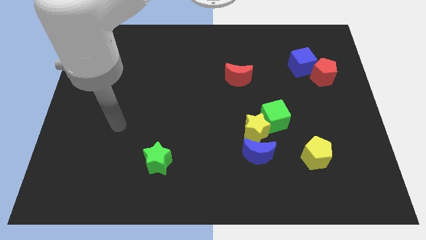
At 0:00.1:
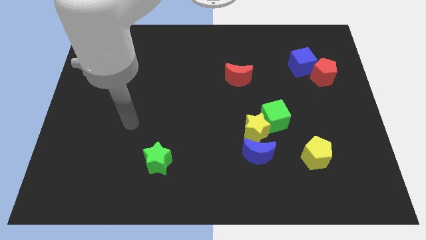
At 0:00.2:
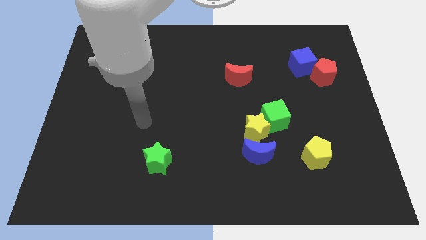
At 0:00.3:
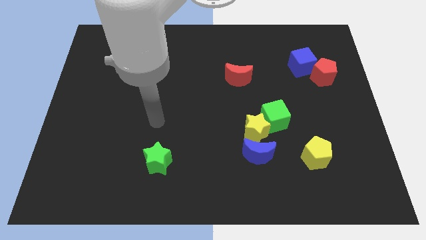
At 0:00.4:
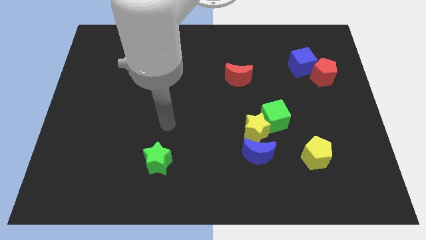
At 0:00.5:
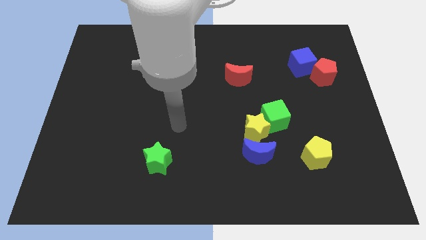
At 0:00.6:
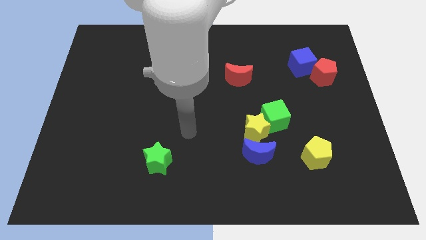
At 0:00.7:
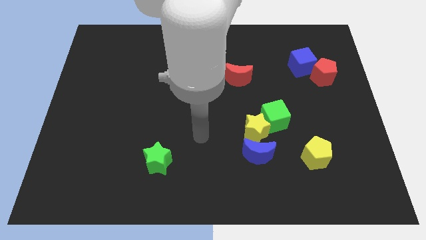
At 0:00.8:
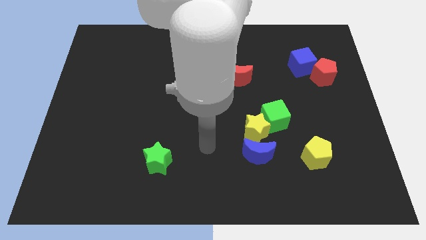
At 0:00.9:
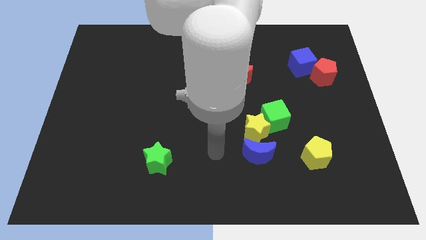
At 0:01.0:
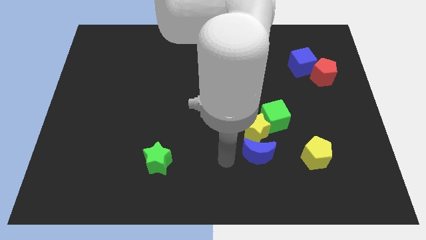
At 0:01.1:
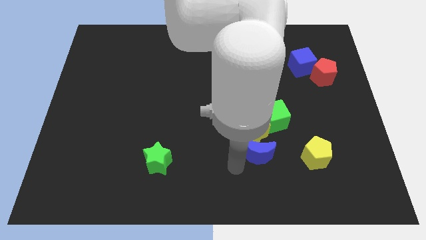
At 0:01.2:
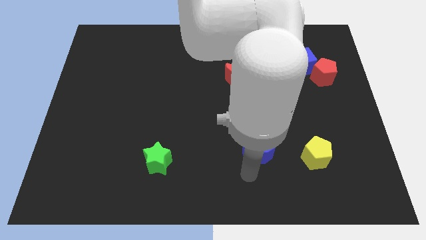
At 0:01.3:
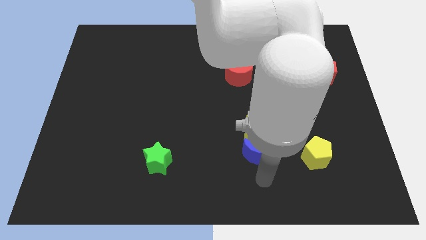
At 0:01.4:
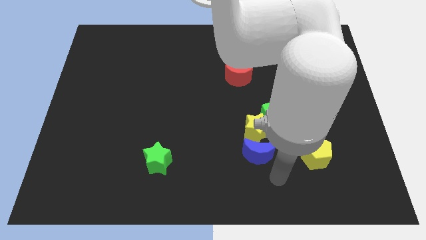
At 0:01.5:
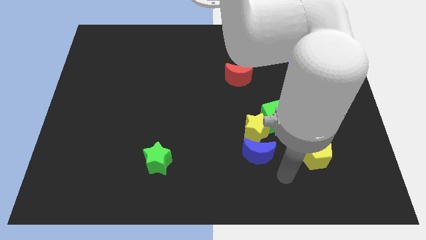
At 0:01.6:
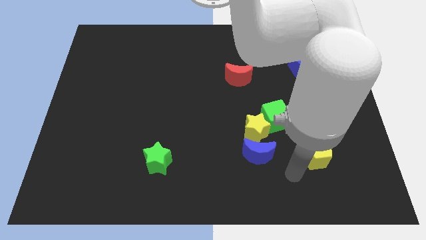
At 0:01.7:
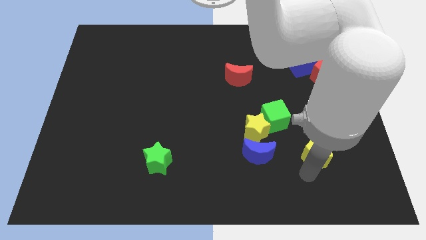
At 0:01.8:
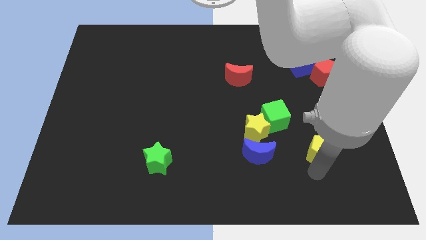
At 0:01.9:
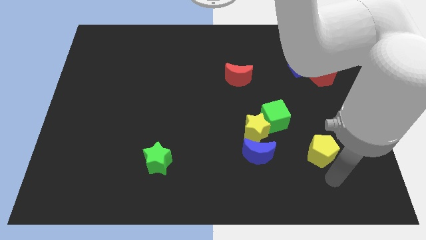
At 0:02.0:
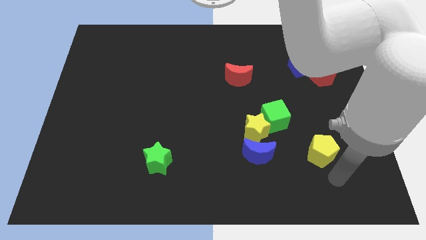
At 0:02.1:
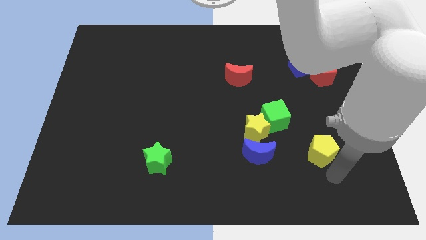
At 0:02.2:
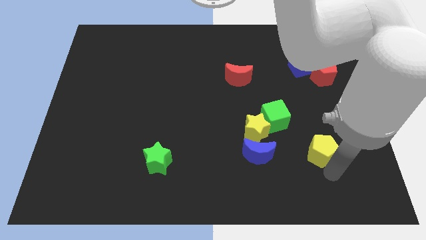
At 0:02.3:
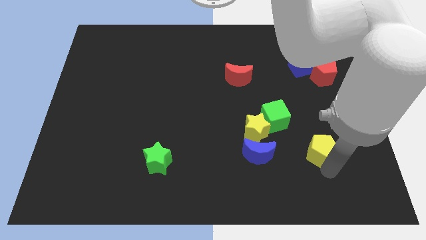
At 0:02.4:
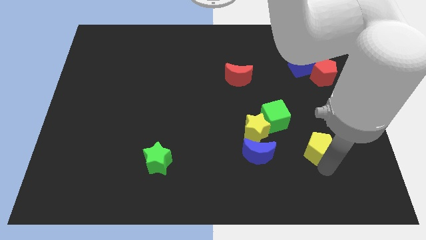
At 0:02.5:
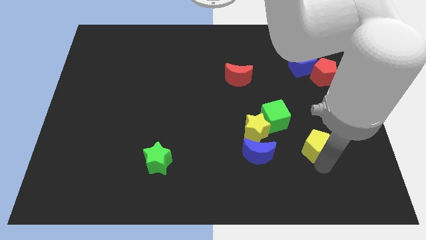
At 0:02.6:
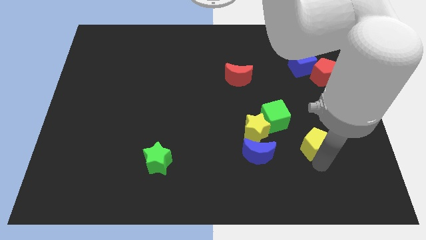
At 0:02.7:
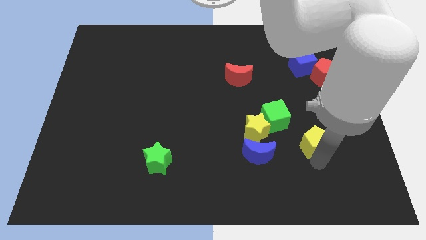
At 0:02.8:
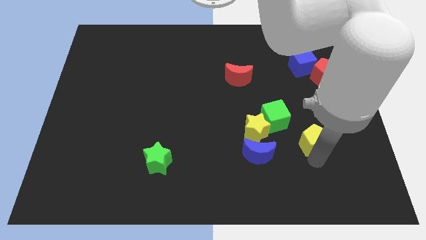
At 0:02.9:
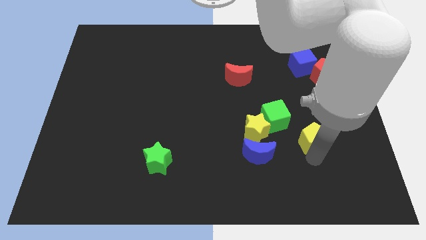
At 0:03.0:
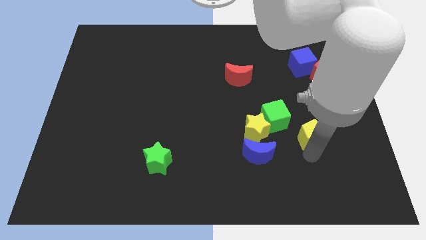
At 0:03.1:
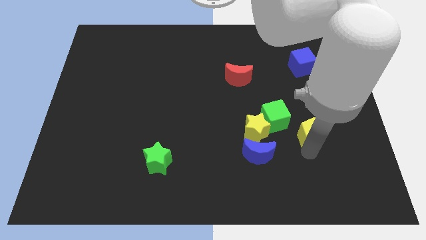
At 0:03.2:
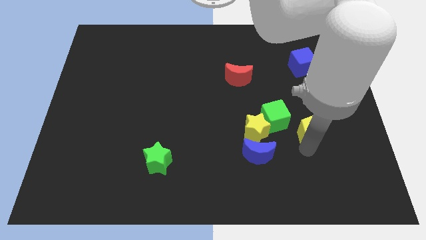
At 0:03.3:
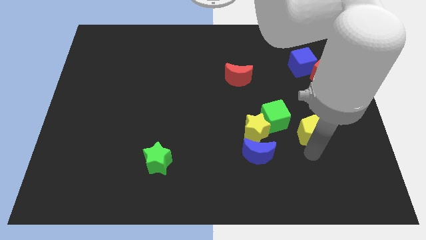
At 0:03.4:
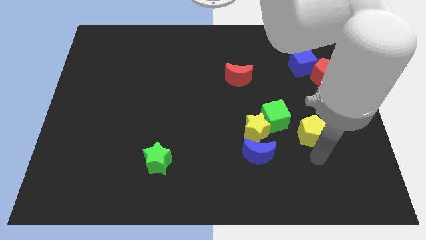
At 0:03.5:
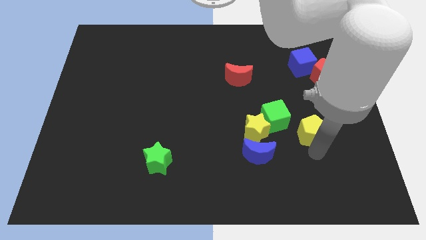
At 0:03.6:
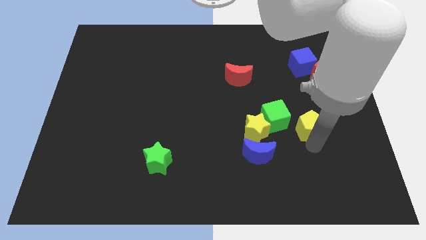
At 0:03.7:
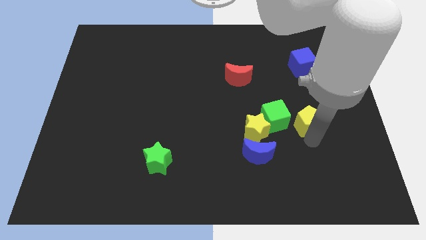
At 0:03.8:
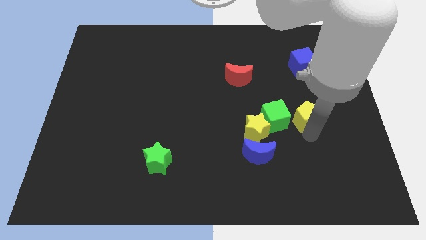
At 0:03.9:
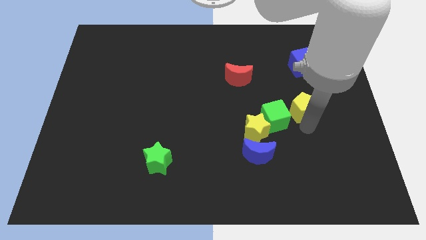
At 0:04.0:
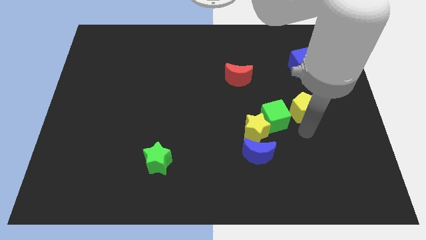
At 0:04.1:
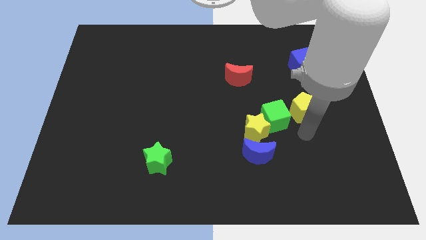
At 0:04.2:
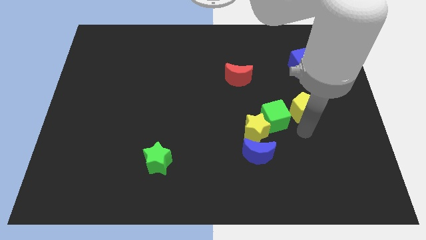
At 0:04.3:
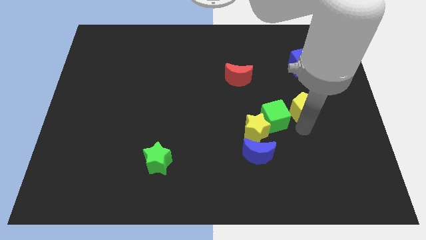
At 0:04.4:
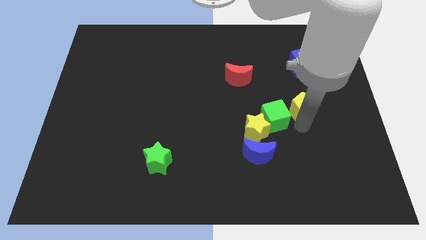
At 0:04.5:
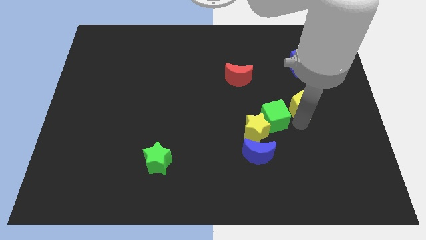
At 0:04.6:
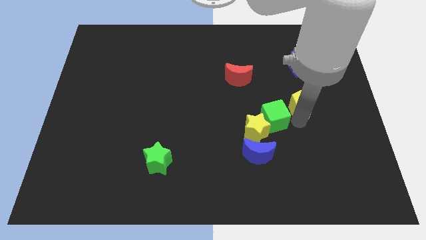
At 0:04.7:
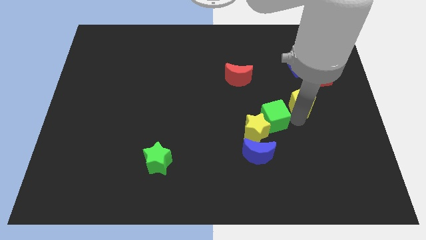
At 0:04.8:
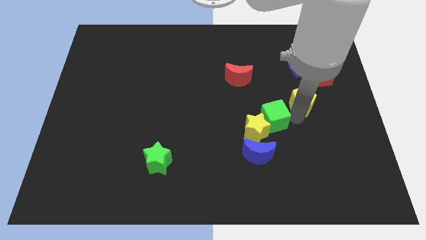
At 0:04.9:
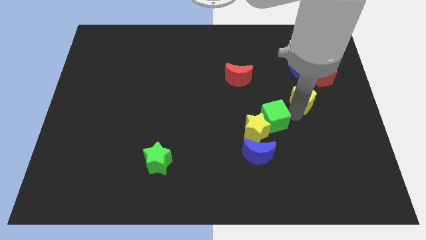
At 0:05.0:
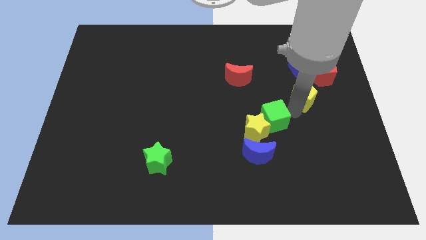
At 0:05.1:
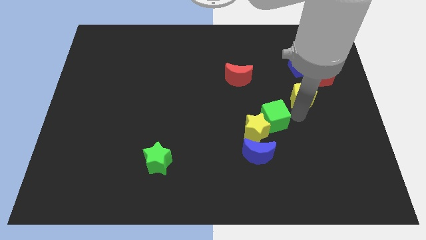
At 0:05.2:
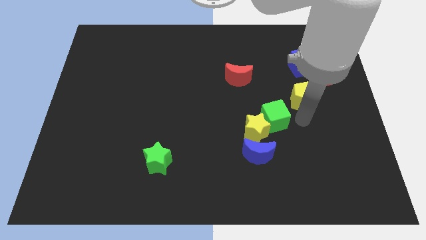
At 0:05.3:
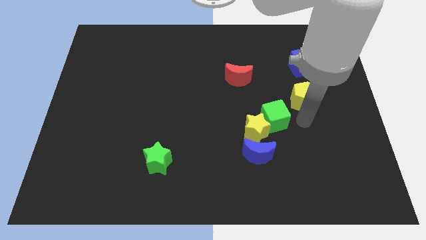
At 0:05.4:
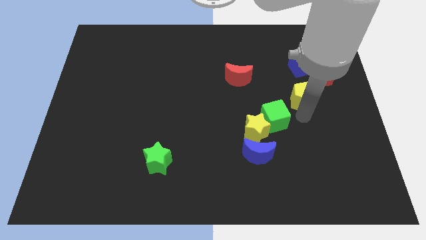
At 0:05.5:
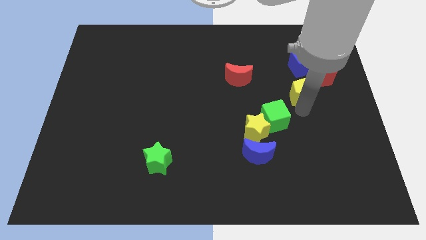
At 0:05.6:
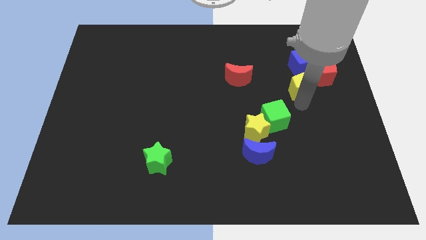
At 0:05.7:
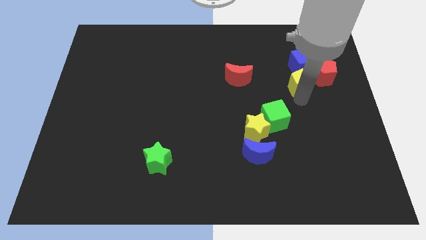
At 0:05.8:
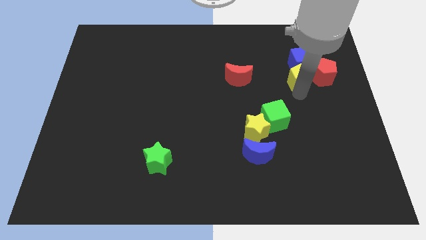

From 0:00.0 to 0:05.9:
put the yellow pentagon close to the blue cube
